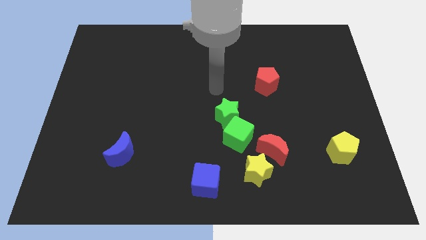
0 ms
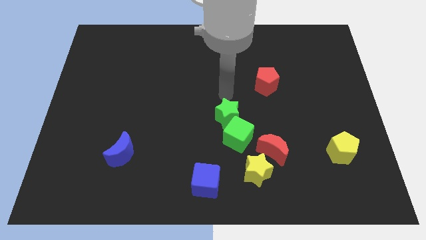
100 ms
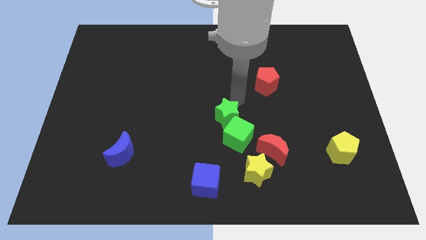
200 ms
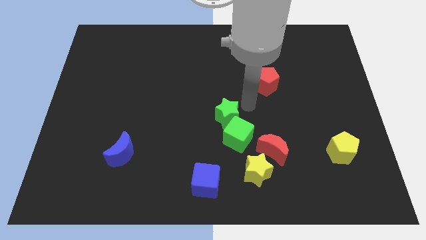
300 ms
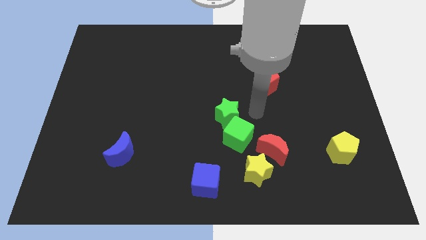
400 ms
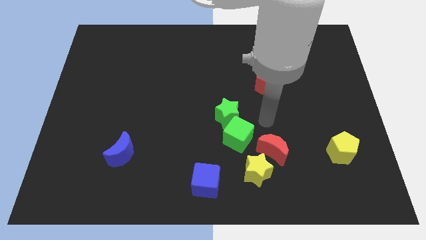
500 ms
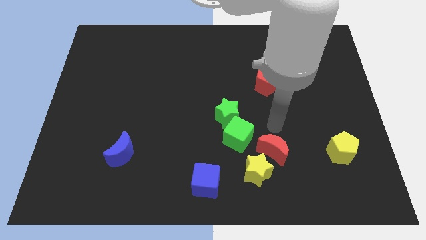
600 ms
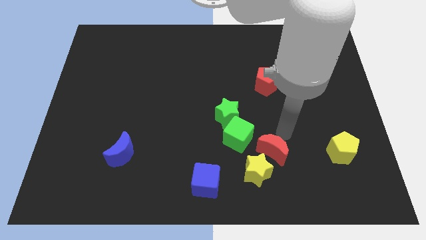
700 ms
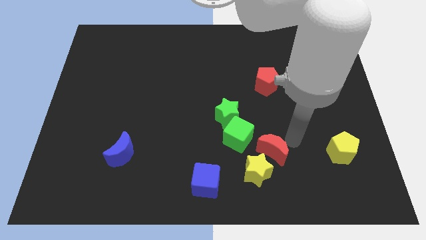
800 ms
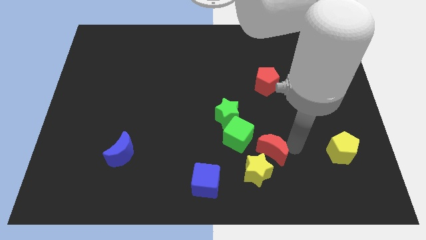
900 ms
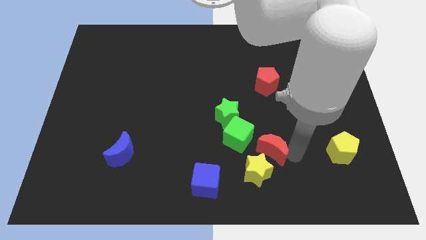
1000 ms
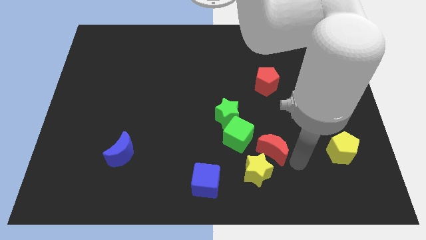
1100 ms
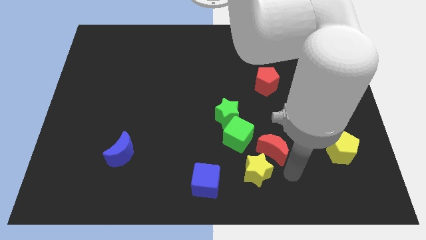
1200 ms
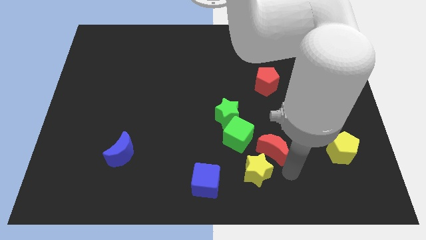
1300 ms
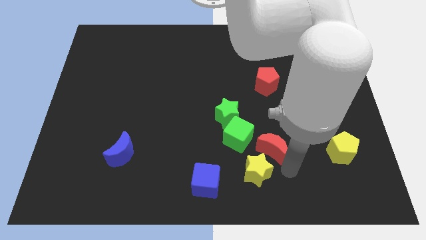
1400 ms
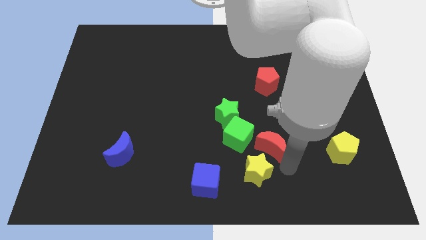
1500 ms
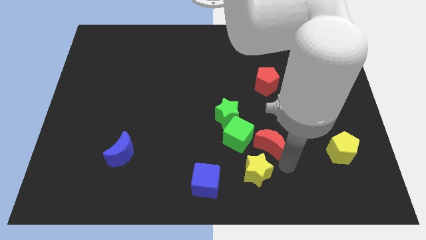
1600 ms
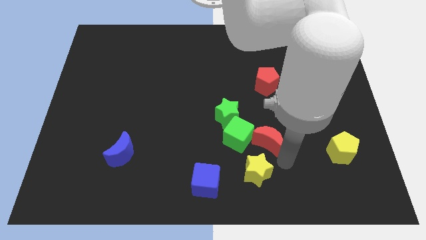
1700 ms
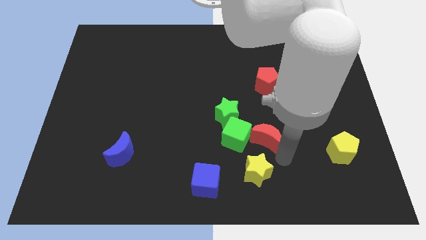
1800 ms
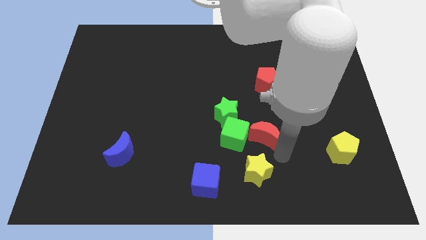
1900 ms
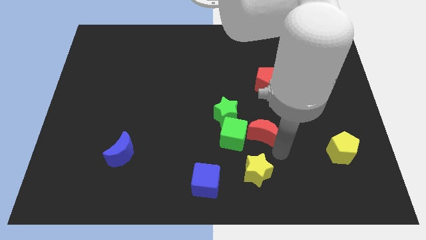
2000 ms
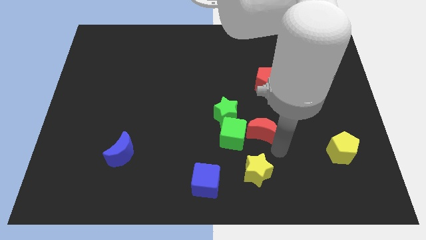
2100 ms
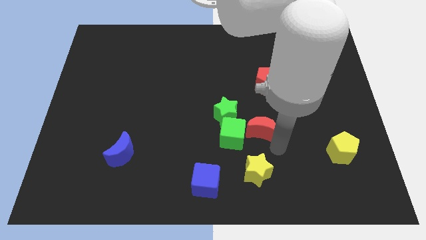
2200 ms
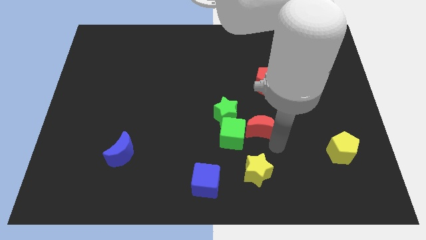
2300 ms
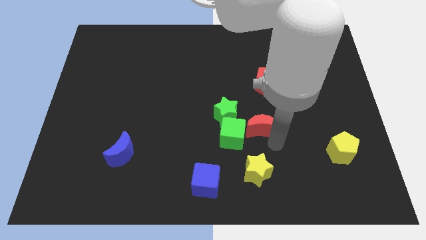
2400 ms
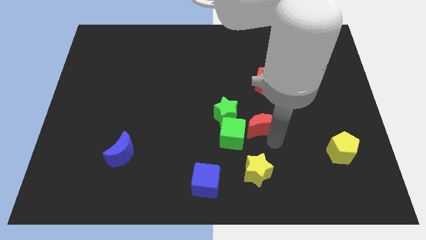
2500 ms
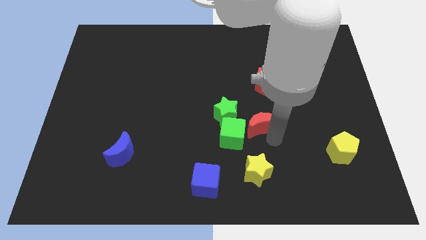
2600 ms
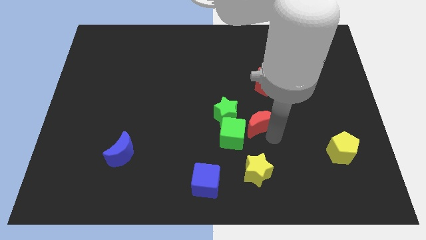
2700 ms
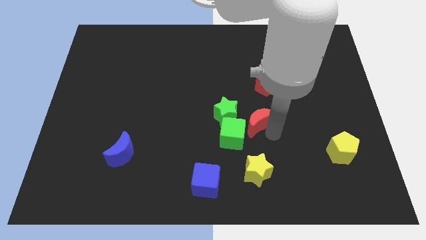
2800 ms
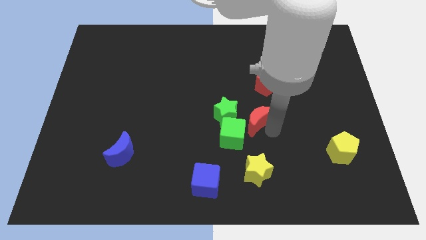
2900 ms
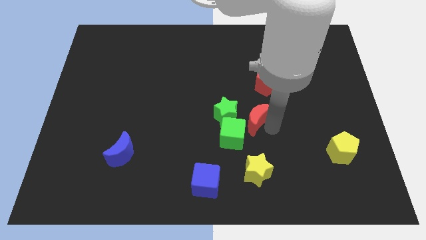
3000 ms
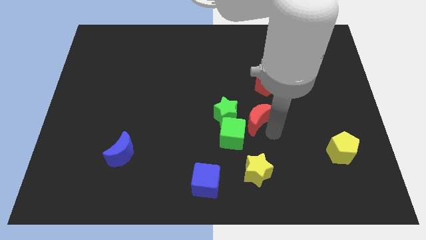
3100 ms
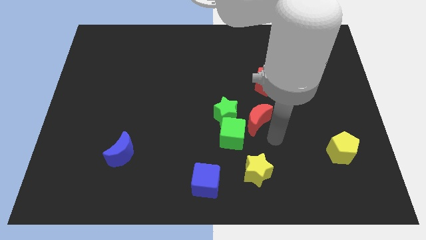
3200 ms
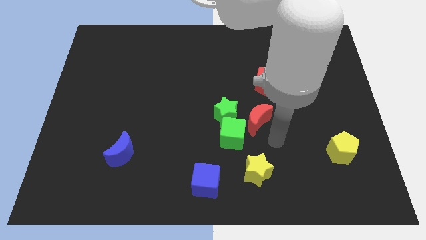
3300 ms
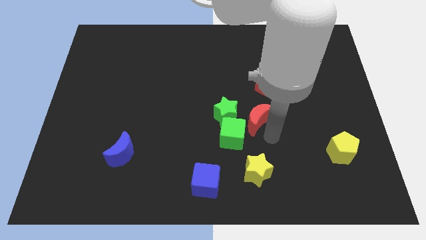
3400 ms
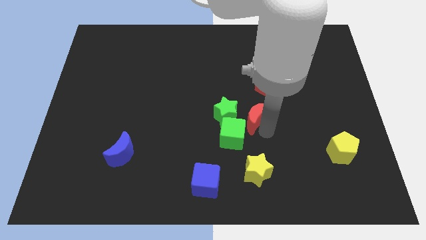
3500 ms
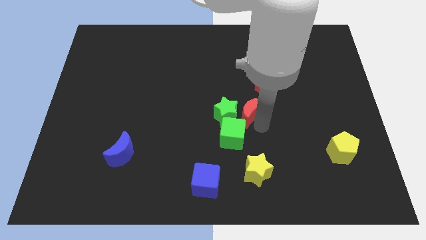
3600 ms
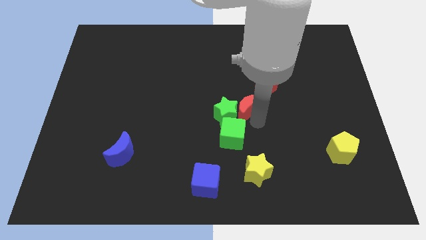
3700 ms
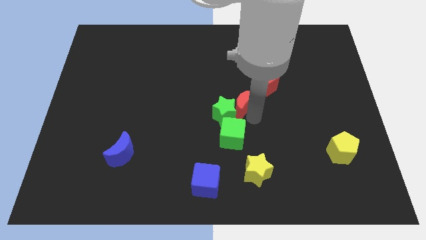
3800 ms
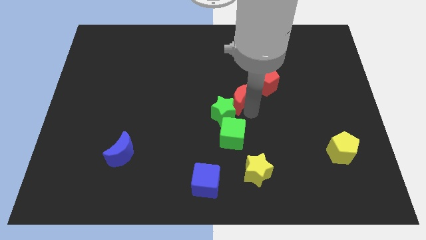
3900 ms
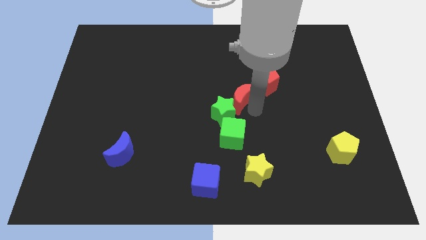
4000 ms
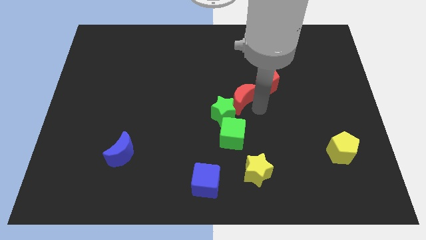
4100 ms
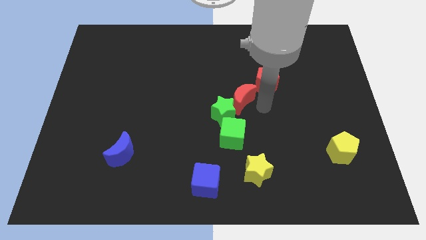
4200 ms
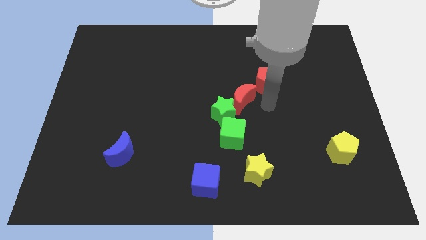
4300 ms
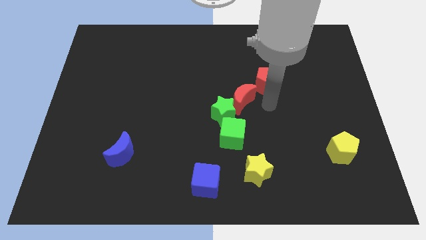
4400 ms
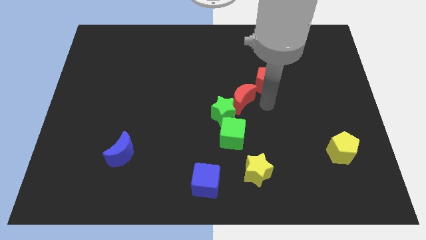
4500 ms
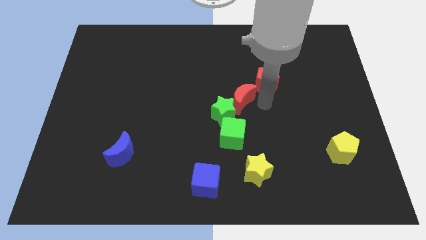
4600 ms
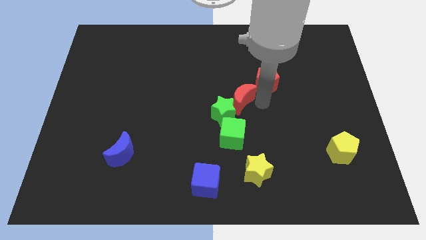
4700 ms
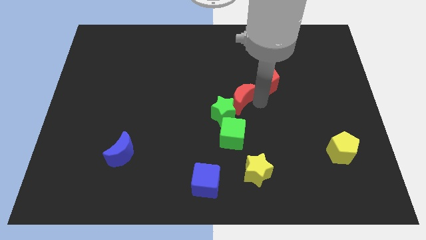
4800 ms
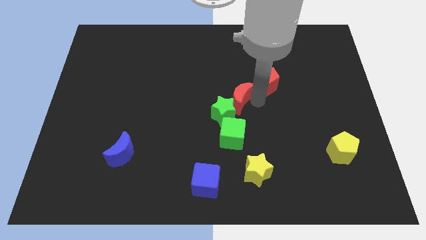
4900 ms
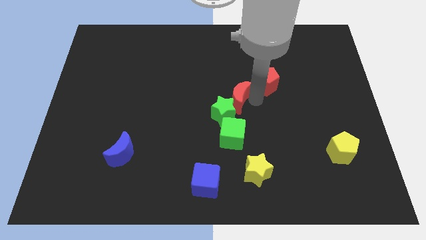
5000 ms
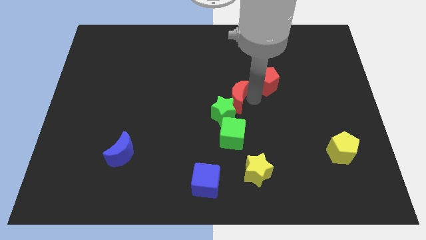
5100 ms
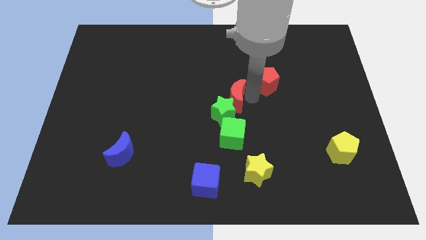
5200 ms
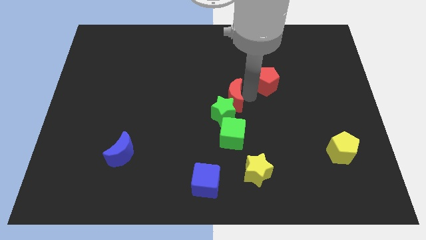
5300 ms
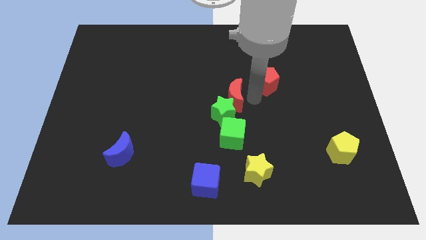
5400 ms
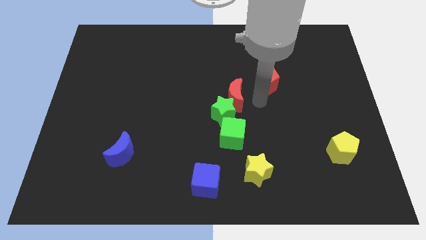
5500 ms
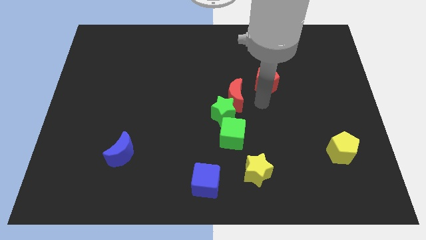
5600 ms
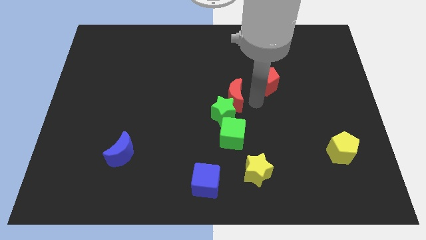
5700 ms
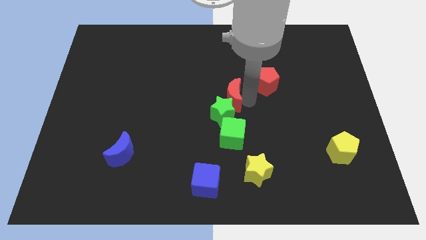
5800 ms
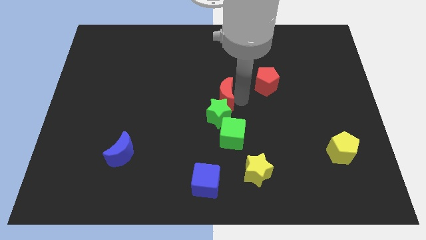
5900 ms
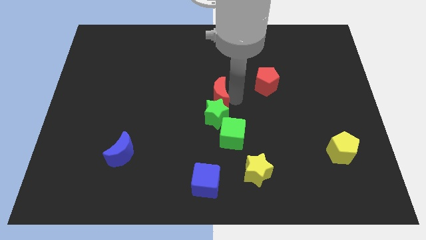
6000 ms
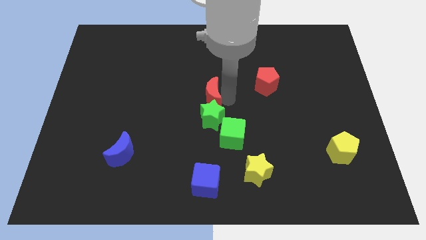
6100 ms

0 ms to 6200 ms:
slide the red moon up and then left

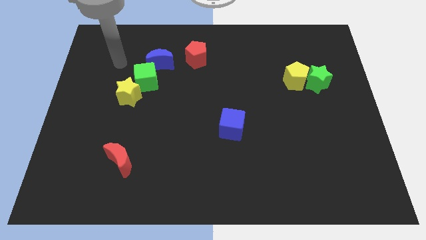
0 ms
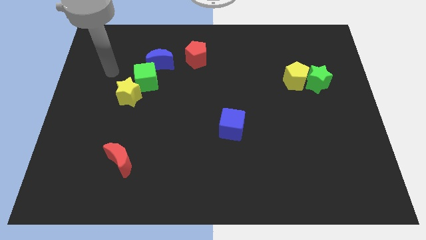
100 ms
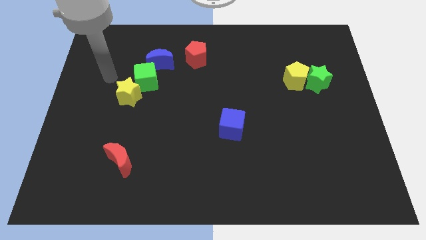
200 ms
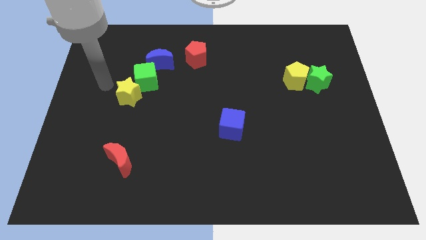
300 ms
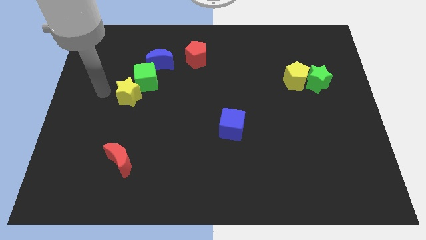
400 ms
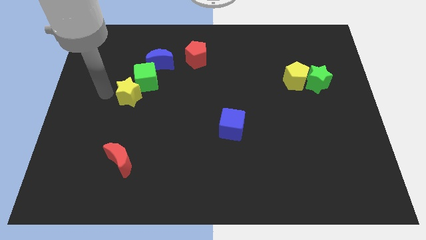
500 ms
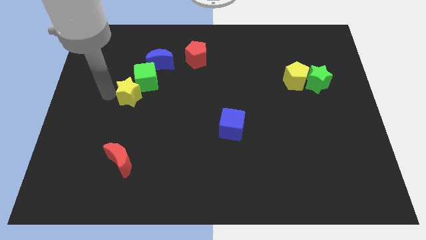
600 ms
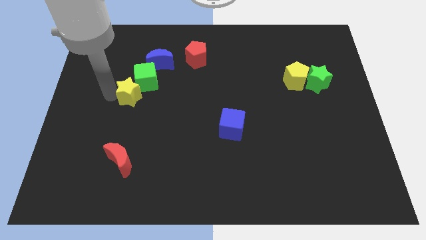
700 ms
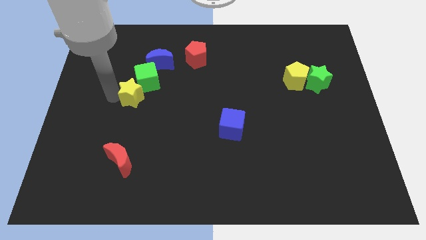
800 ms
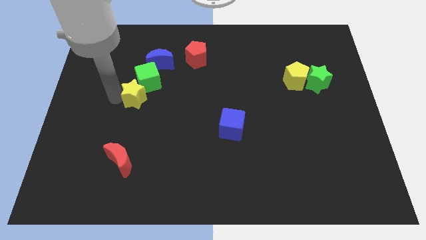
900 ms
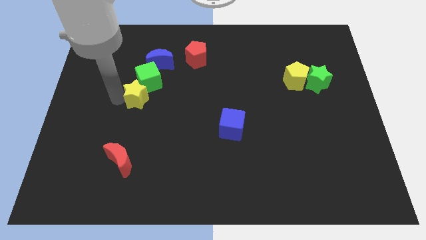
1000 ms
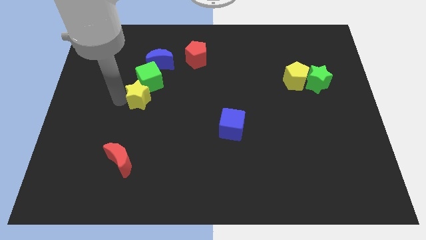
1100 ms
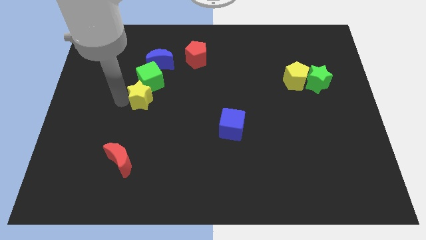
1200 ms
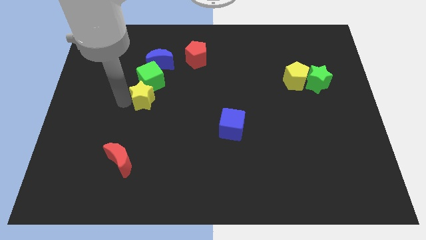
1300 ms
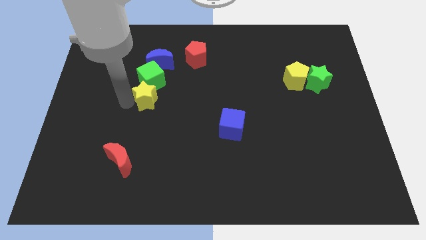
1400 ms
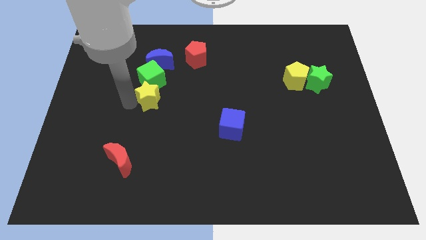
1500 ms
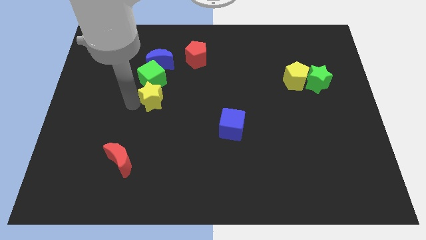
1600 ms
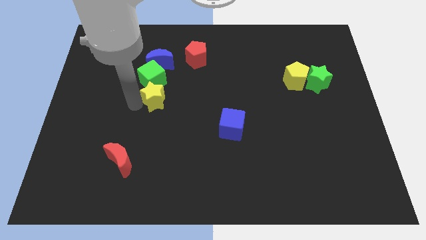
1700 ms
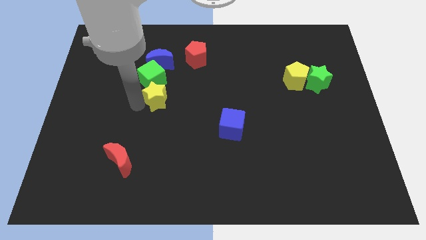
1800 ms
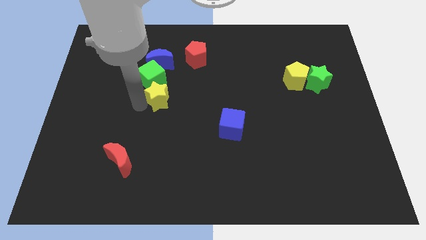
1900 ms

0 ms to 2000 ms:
slightly move the yellow star to the right
